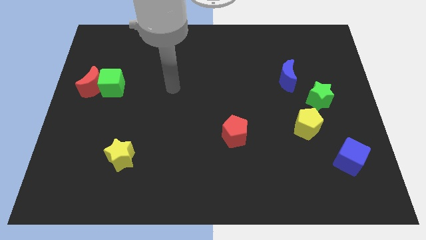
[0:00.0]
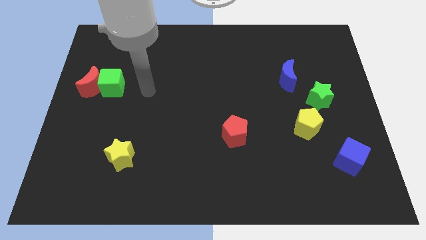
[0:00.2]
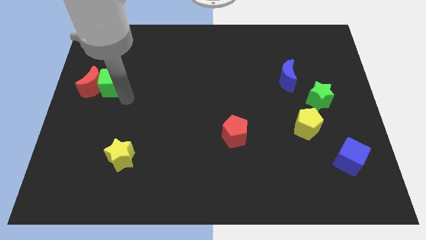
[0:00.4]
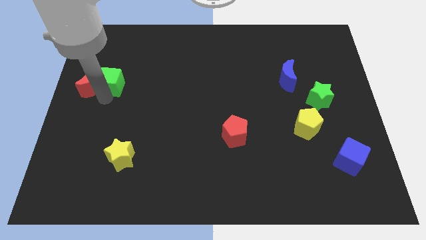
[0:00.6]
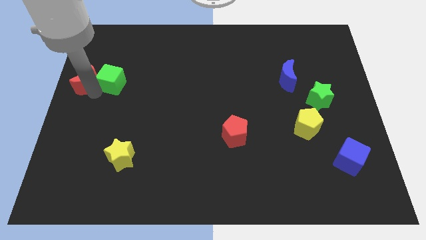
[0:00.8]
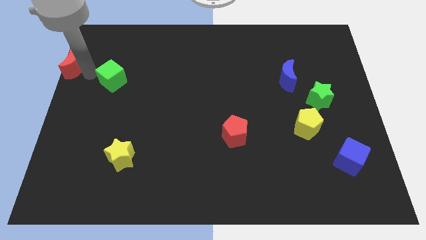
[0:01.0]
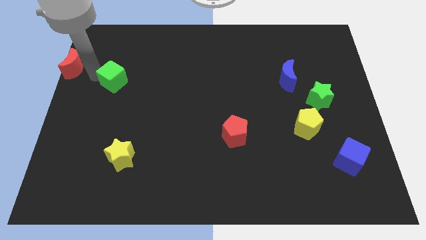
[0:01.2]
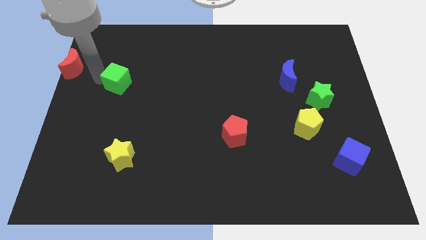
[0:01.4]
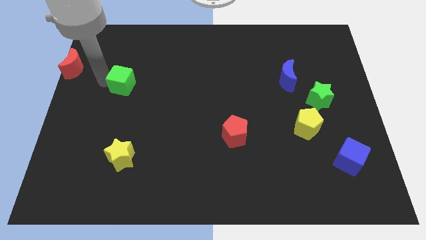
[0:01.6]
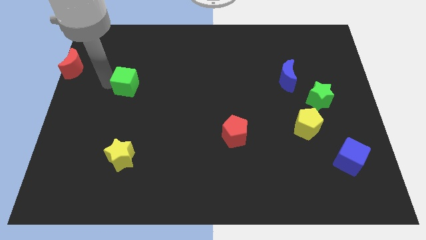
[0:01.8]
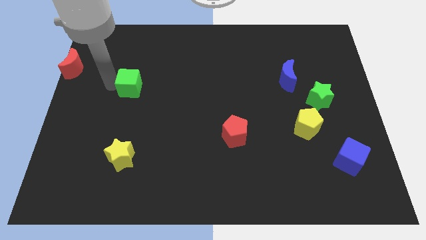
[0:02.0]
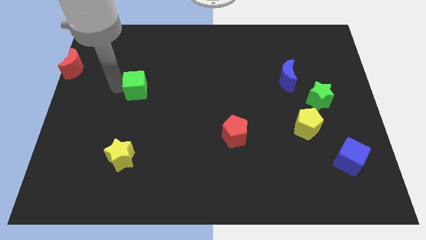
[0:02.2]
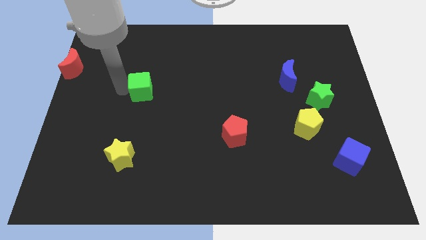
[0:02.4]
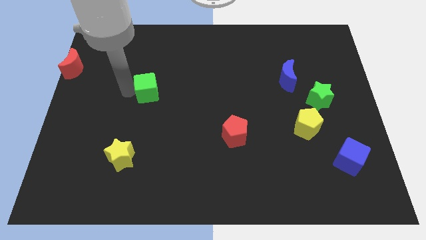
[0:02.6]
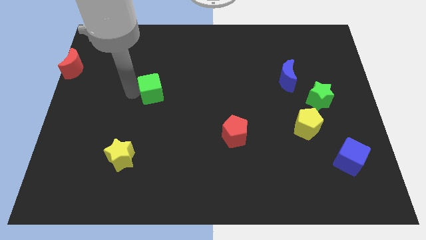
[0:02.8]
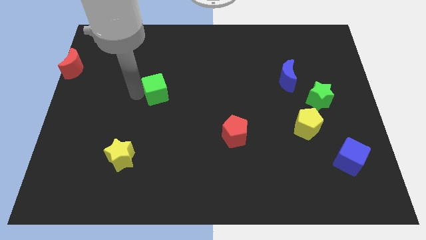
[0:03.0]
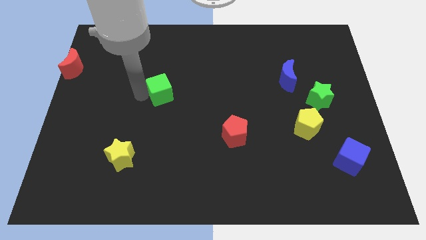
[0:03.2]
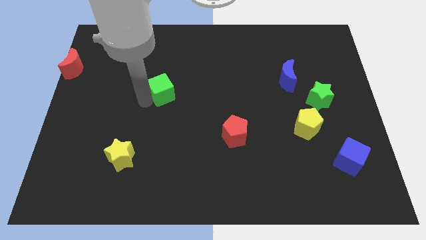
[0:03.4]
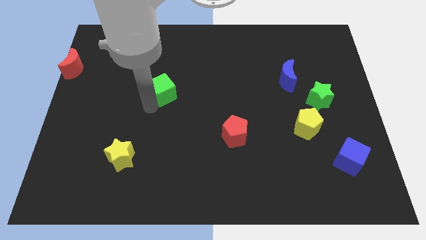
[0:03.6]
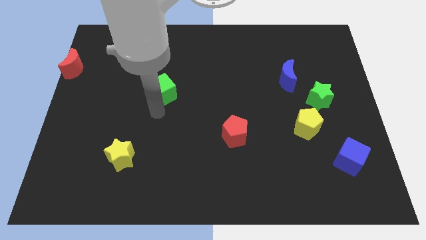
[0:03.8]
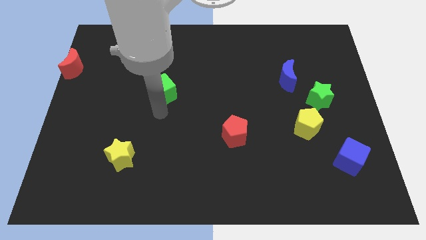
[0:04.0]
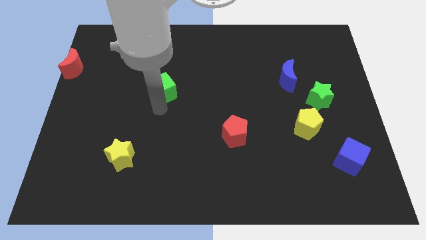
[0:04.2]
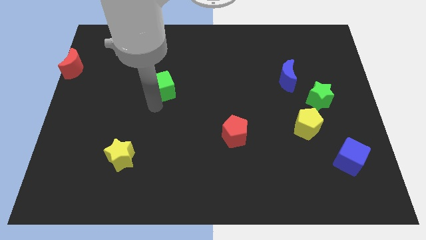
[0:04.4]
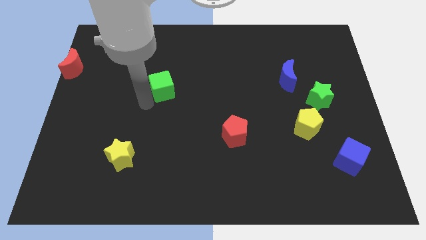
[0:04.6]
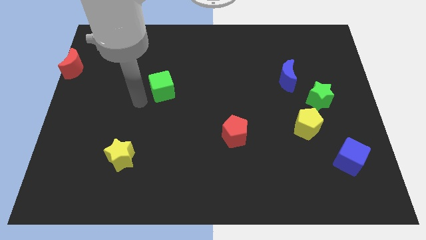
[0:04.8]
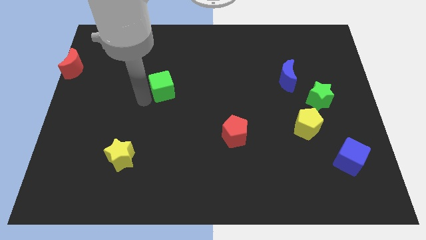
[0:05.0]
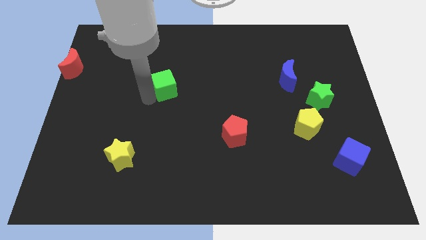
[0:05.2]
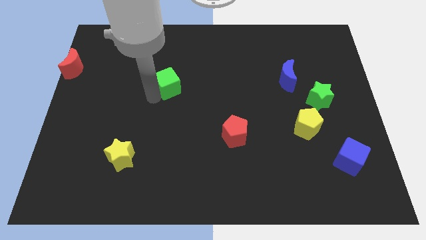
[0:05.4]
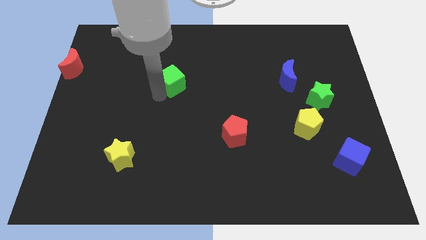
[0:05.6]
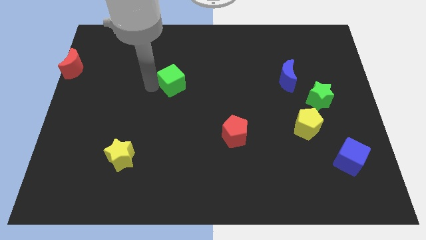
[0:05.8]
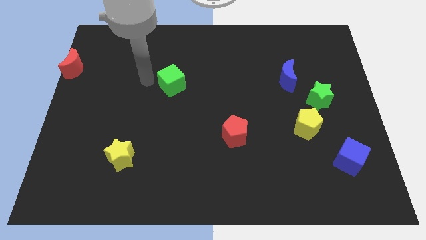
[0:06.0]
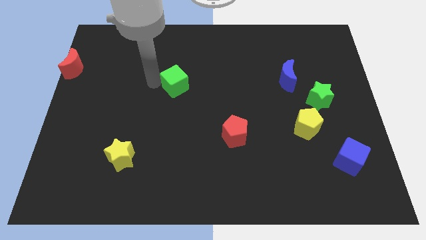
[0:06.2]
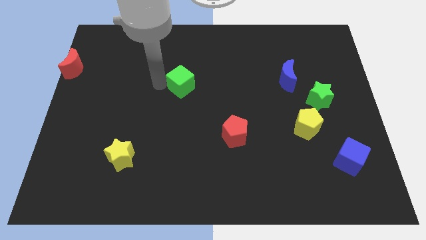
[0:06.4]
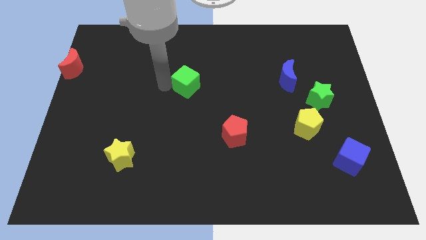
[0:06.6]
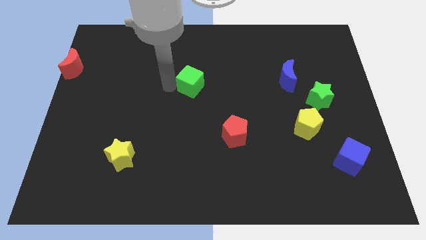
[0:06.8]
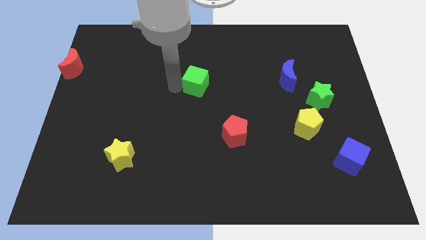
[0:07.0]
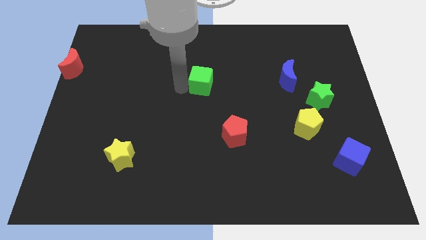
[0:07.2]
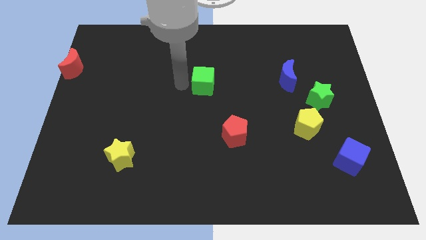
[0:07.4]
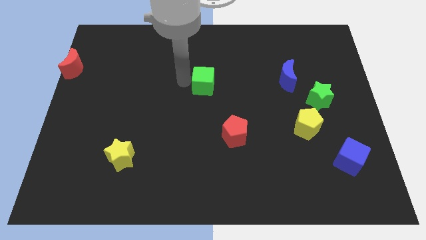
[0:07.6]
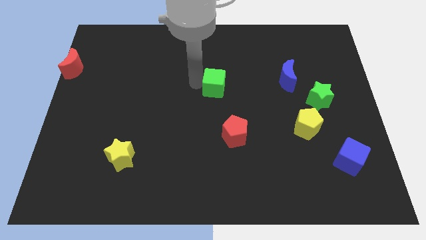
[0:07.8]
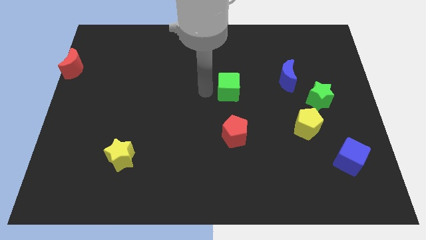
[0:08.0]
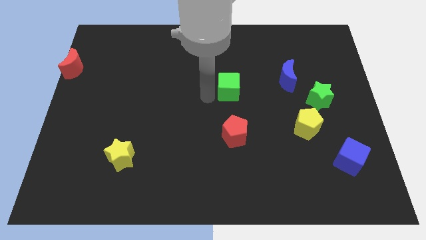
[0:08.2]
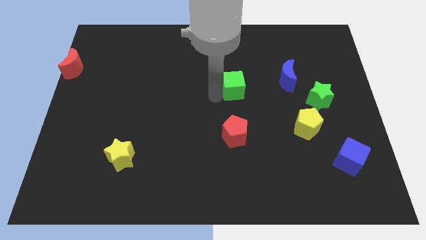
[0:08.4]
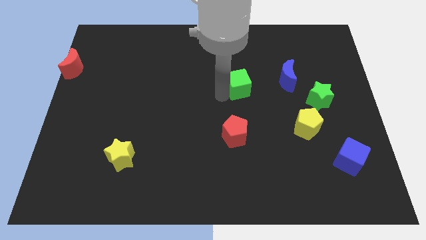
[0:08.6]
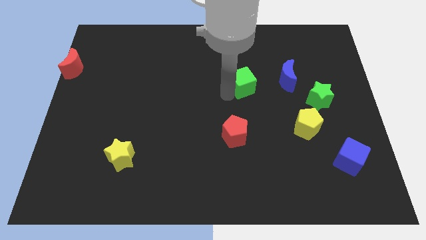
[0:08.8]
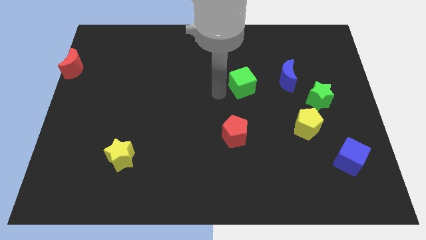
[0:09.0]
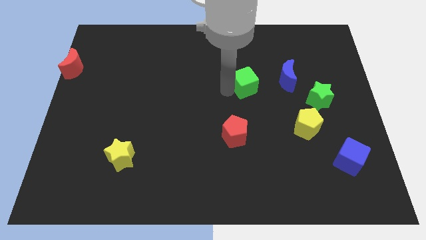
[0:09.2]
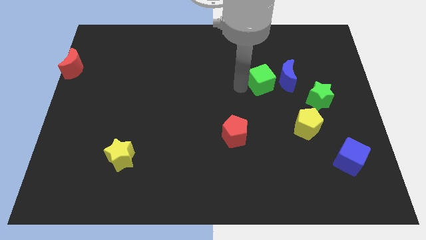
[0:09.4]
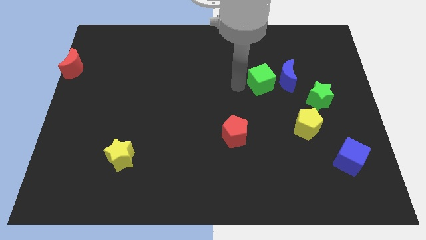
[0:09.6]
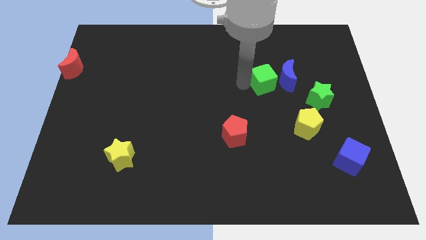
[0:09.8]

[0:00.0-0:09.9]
slide the green cube close to the blue moon

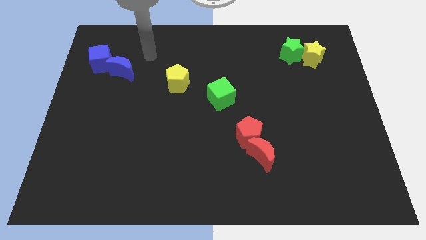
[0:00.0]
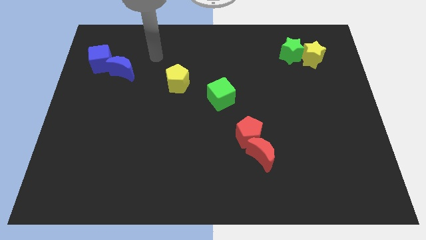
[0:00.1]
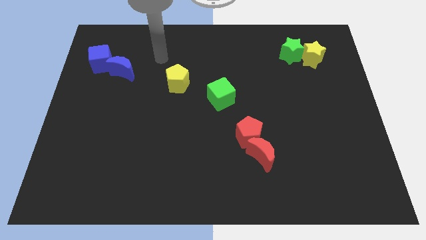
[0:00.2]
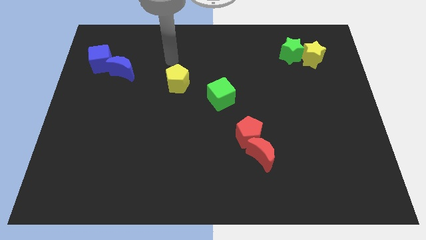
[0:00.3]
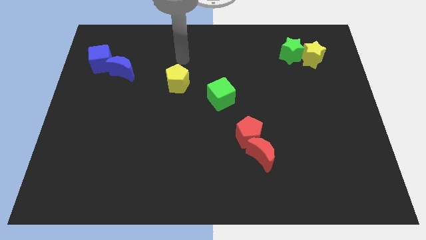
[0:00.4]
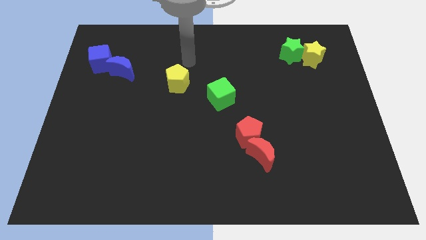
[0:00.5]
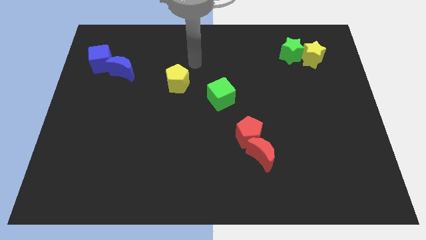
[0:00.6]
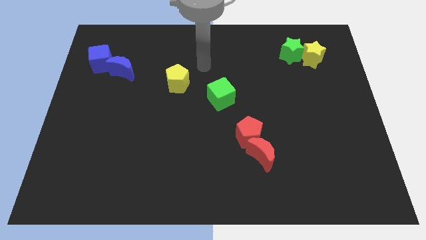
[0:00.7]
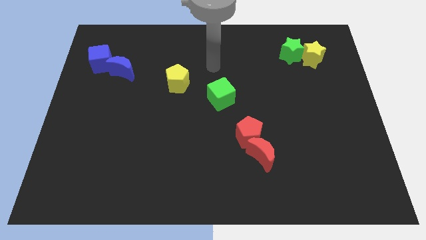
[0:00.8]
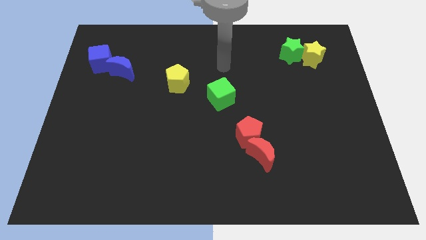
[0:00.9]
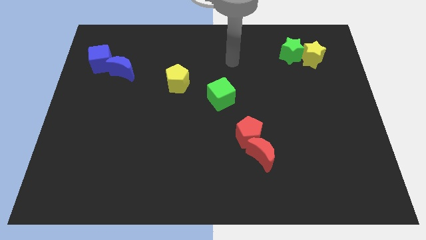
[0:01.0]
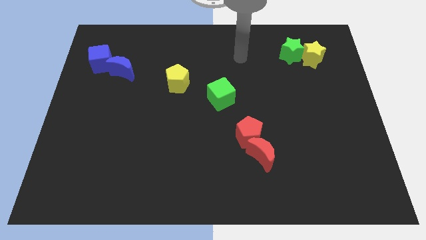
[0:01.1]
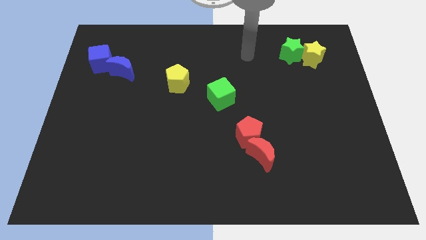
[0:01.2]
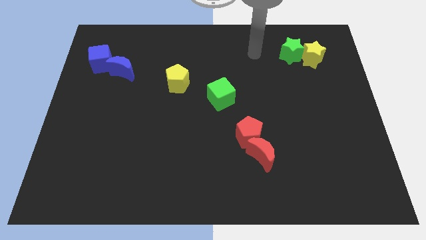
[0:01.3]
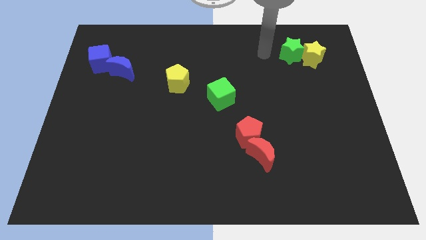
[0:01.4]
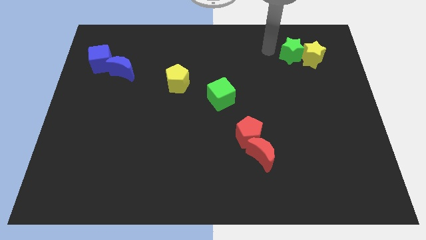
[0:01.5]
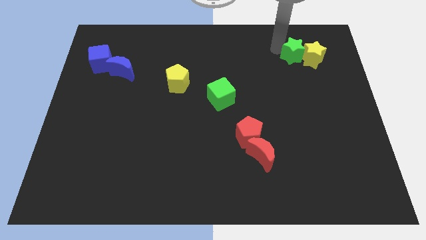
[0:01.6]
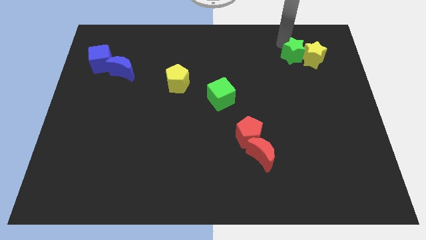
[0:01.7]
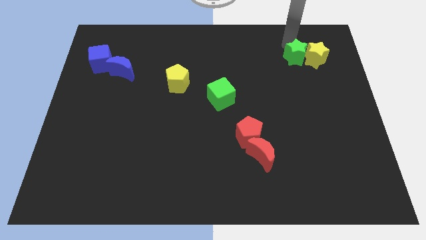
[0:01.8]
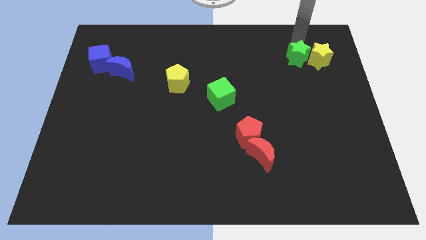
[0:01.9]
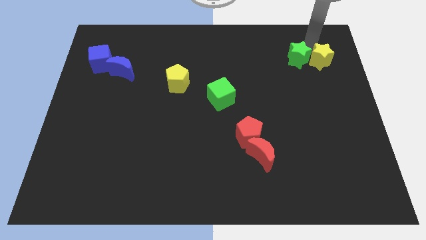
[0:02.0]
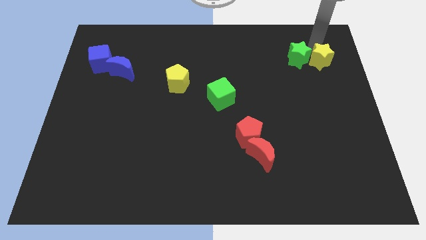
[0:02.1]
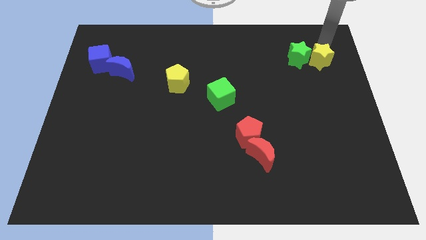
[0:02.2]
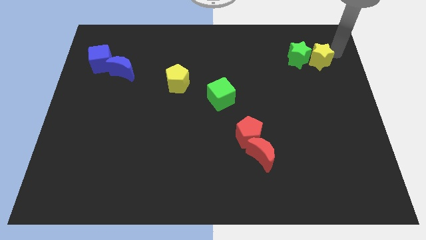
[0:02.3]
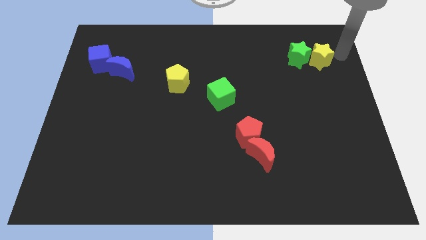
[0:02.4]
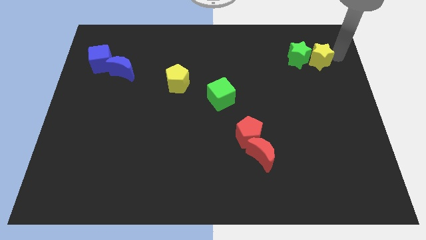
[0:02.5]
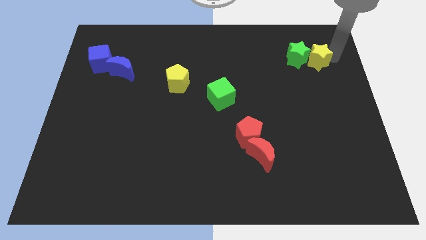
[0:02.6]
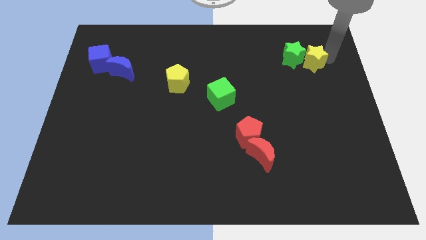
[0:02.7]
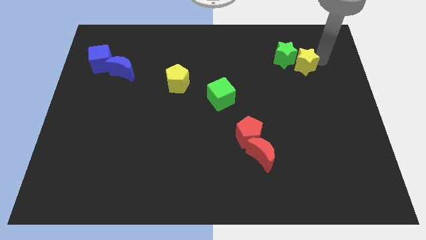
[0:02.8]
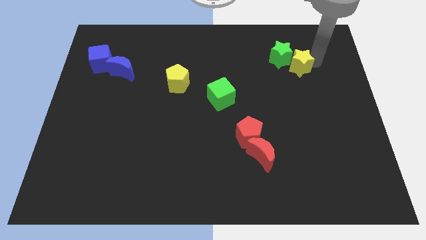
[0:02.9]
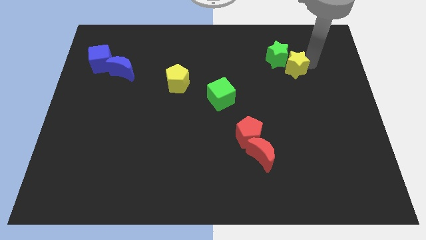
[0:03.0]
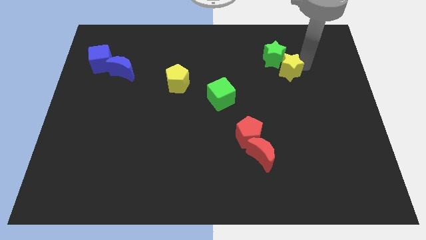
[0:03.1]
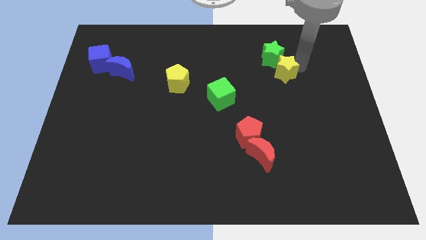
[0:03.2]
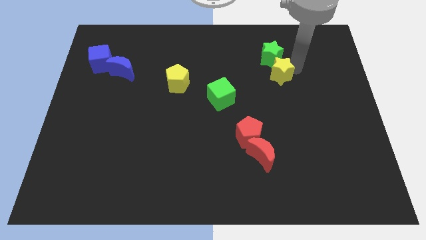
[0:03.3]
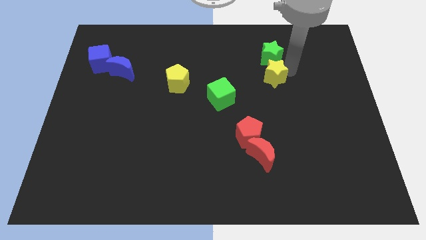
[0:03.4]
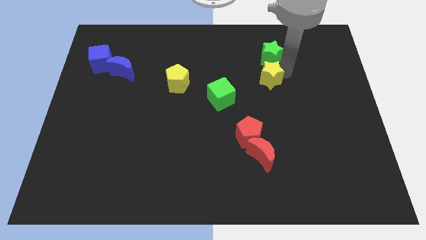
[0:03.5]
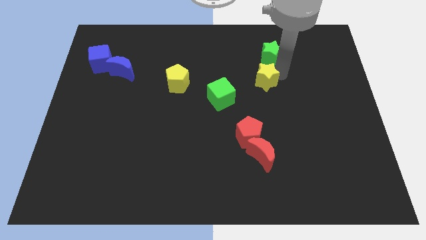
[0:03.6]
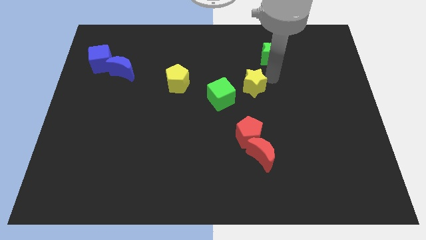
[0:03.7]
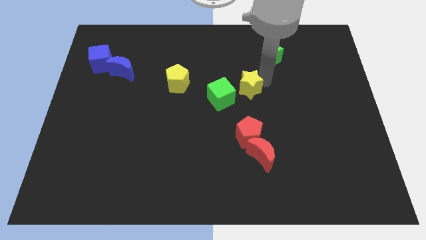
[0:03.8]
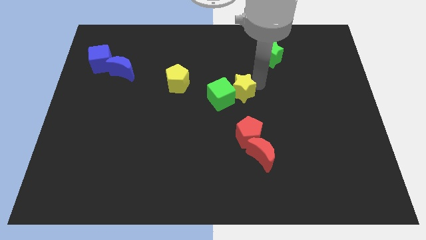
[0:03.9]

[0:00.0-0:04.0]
move the yellow star towards the green cube
